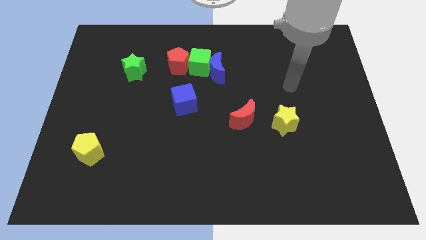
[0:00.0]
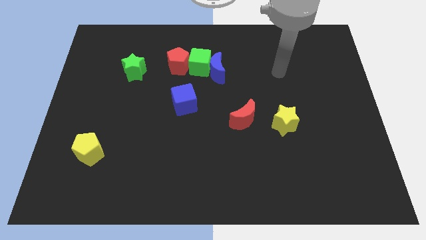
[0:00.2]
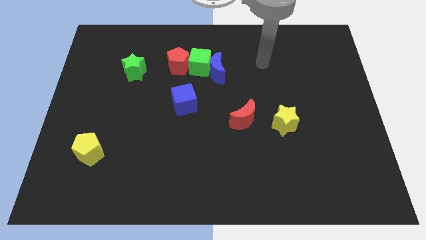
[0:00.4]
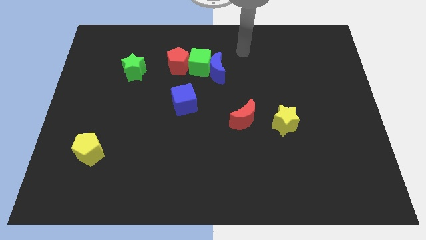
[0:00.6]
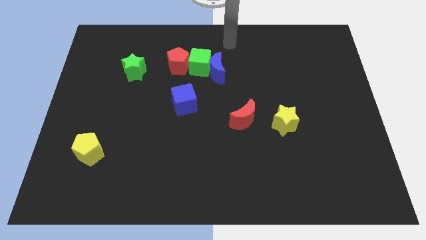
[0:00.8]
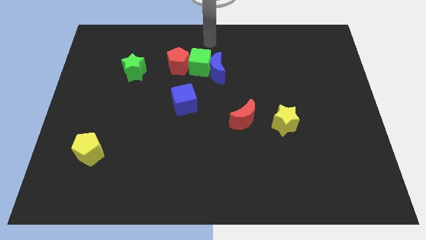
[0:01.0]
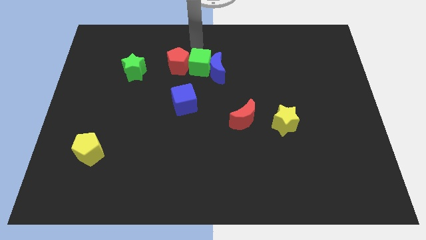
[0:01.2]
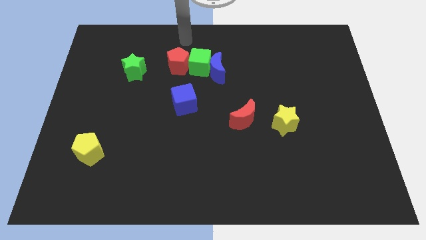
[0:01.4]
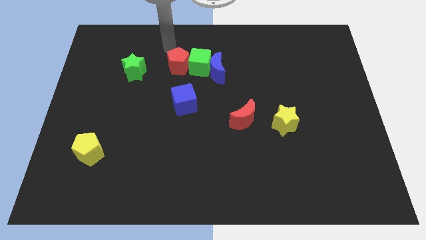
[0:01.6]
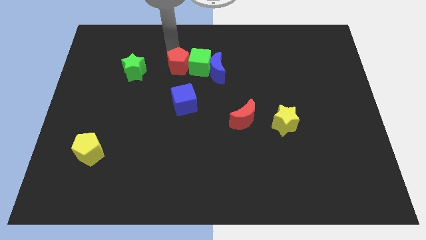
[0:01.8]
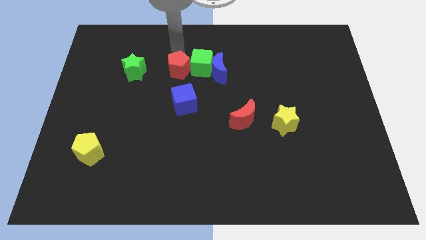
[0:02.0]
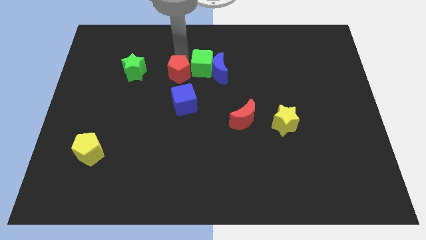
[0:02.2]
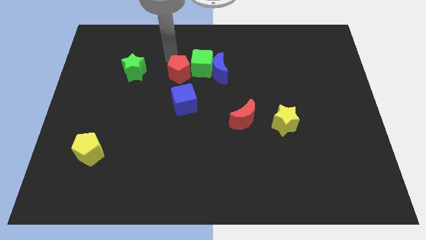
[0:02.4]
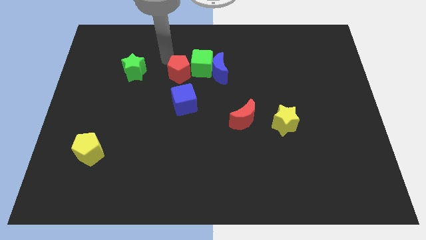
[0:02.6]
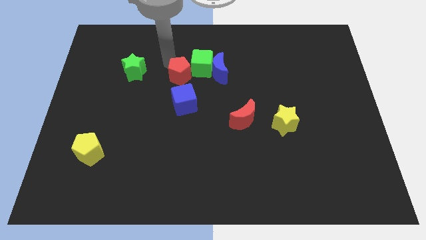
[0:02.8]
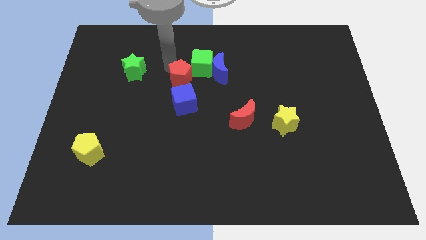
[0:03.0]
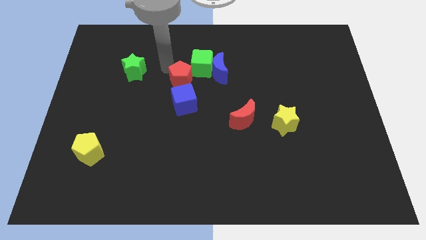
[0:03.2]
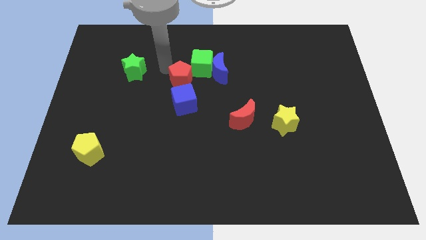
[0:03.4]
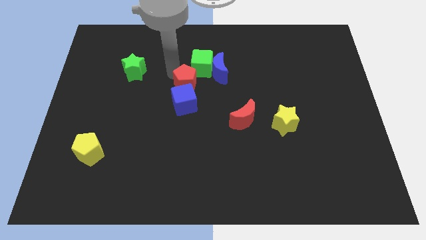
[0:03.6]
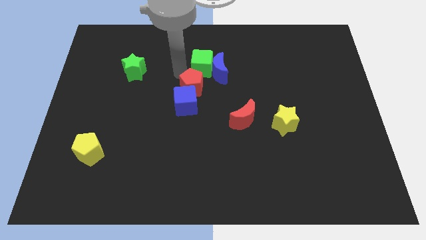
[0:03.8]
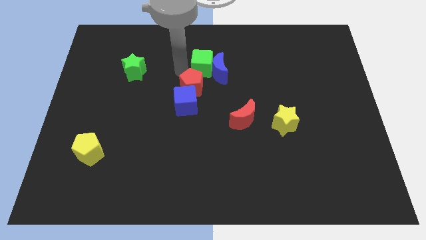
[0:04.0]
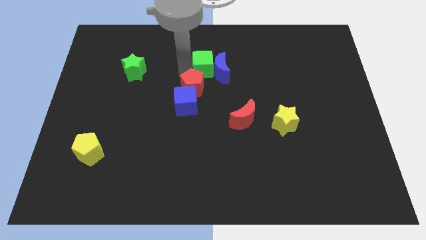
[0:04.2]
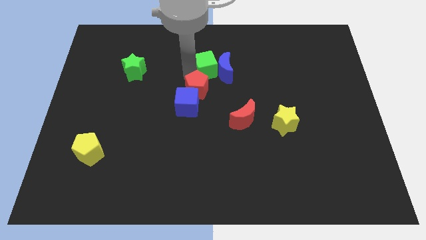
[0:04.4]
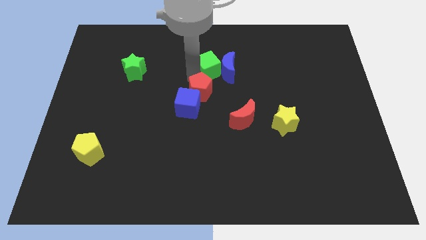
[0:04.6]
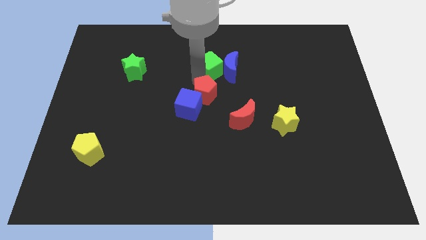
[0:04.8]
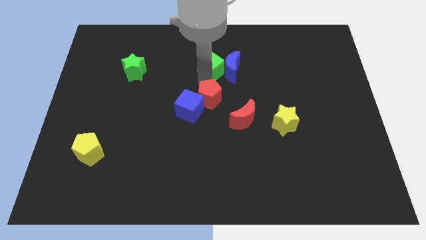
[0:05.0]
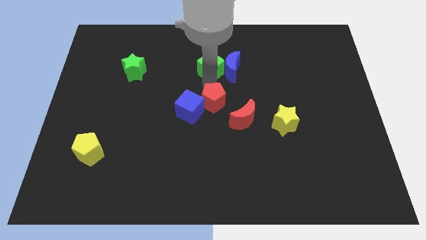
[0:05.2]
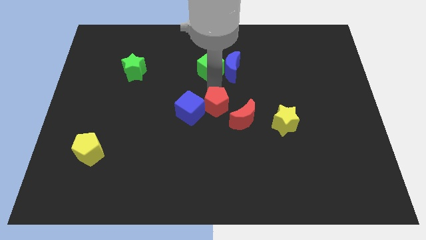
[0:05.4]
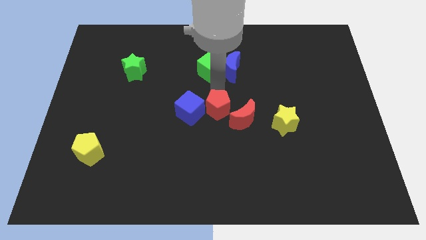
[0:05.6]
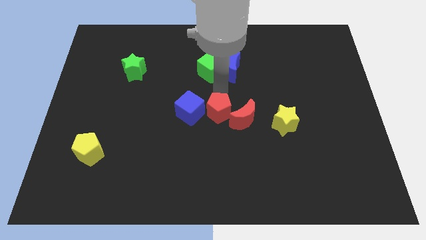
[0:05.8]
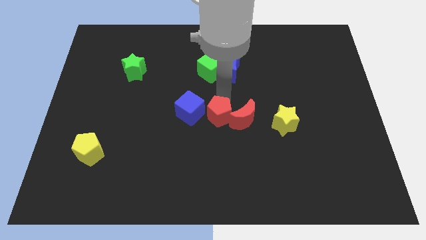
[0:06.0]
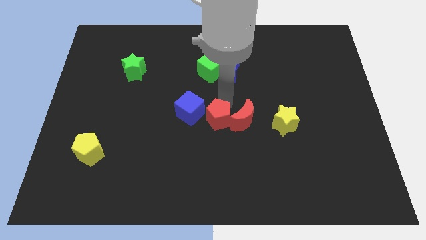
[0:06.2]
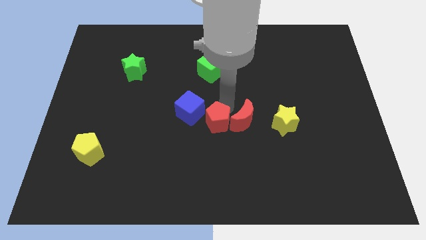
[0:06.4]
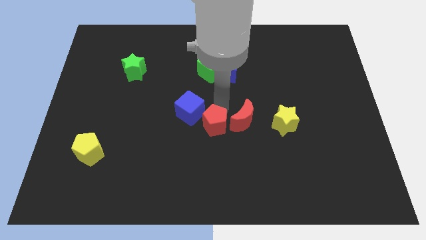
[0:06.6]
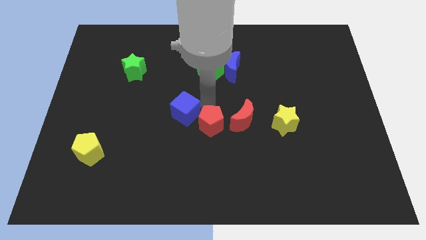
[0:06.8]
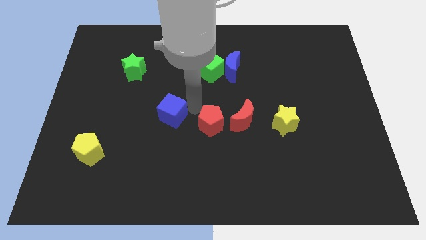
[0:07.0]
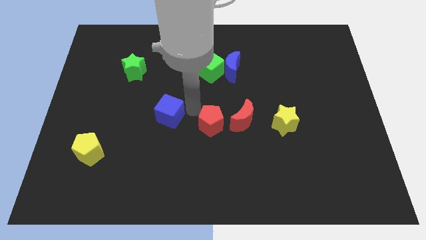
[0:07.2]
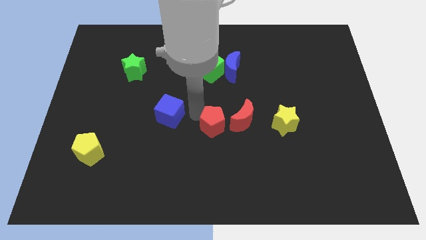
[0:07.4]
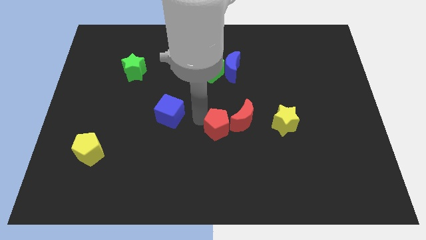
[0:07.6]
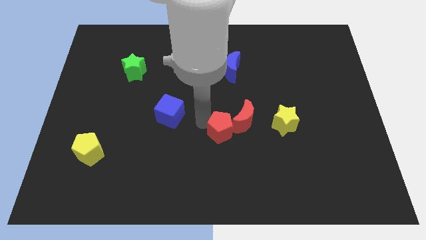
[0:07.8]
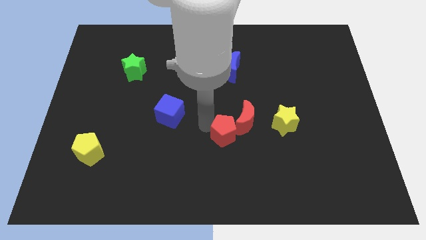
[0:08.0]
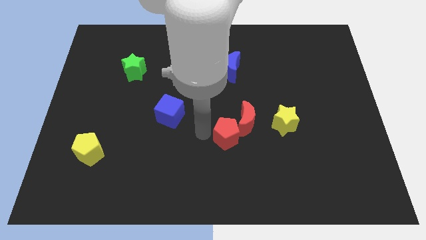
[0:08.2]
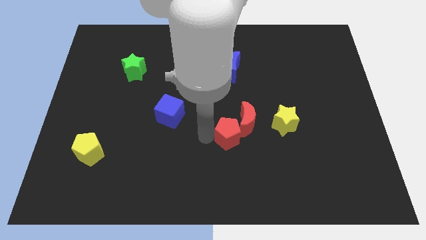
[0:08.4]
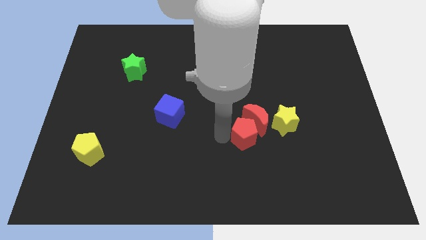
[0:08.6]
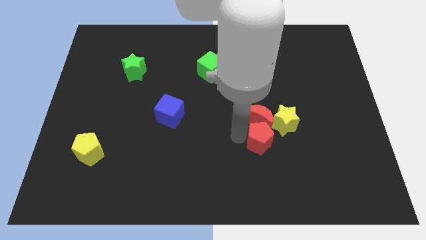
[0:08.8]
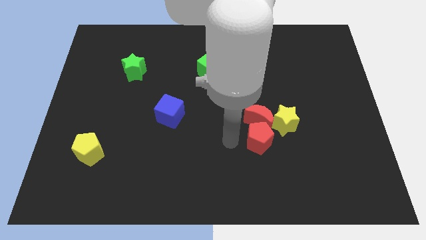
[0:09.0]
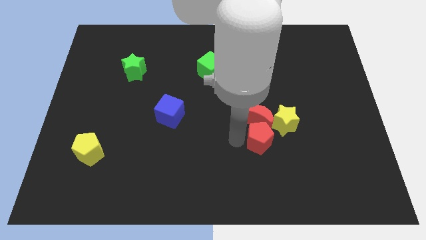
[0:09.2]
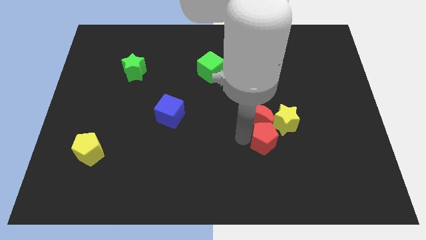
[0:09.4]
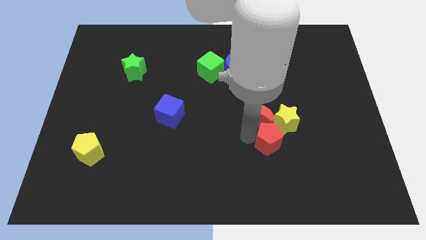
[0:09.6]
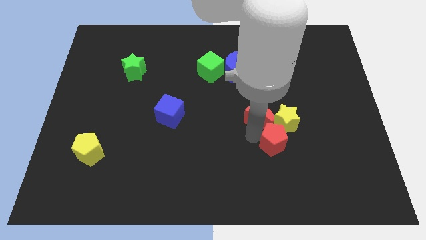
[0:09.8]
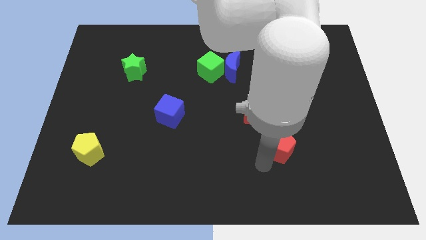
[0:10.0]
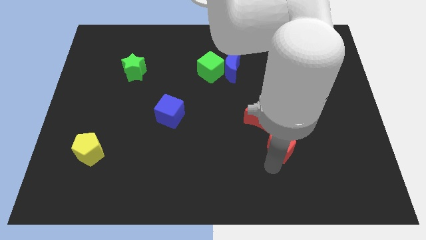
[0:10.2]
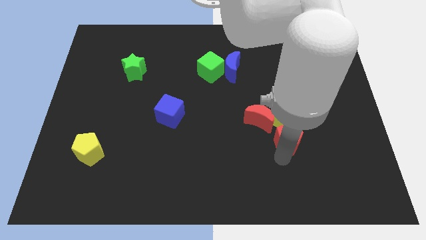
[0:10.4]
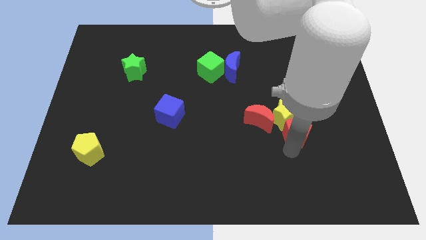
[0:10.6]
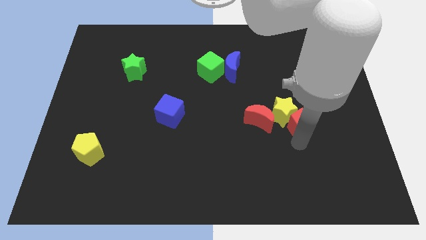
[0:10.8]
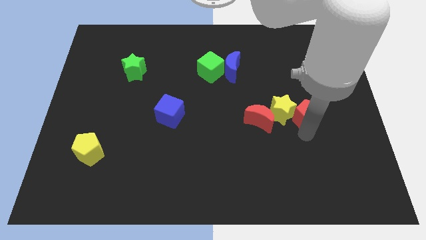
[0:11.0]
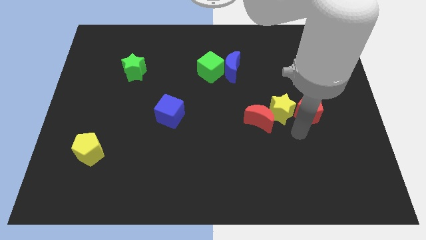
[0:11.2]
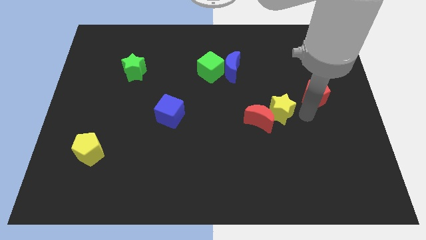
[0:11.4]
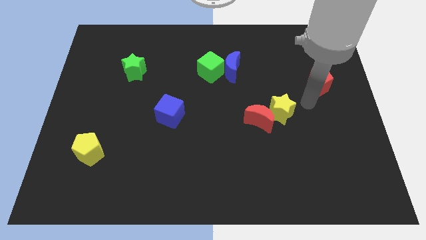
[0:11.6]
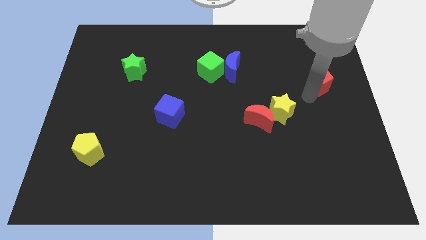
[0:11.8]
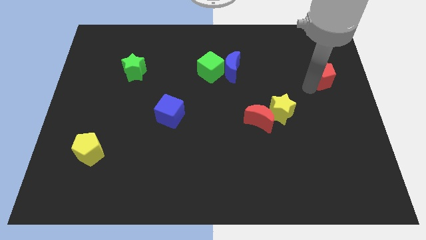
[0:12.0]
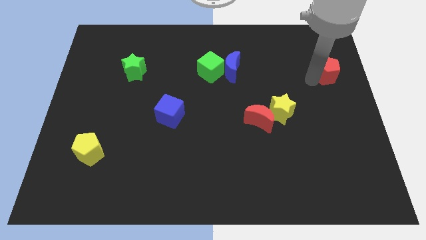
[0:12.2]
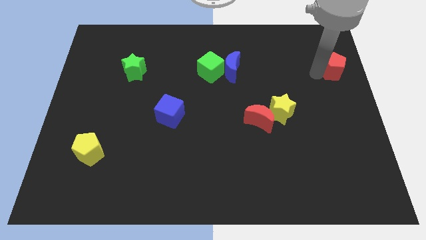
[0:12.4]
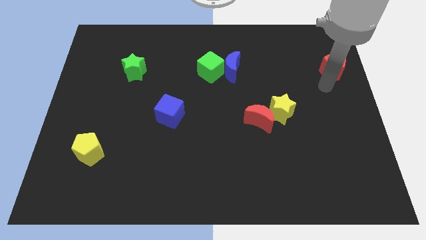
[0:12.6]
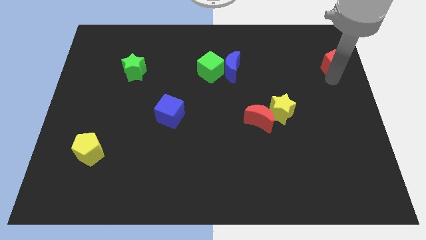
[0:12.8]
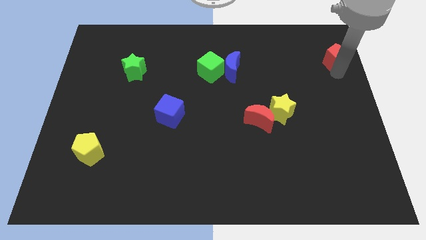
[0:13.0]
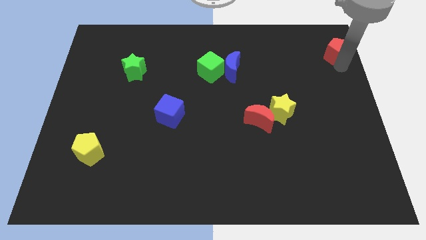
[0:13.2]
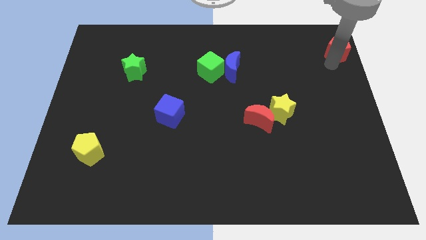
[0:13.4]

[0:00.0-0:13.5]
push the red pentagon to the top right
